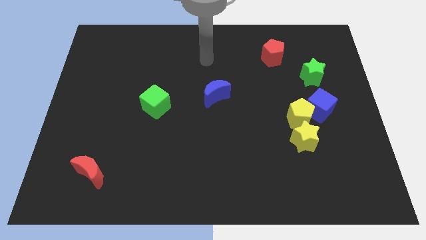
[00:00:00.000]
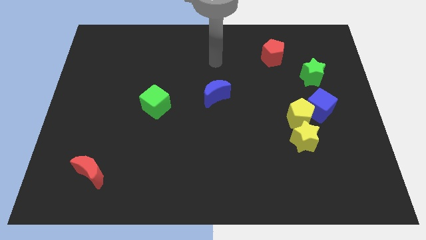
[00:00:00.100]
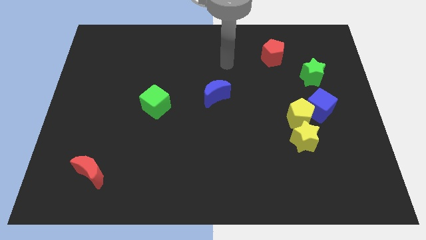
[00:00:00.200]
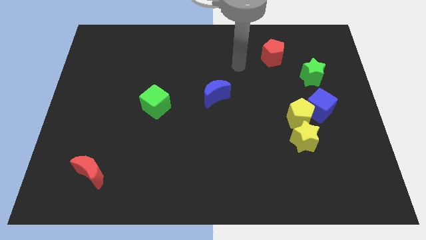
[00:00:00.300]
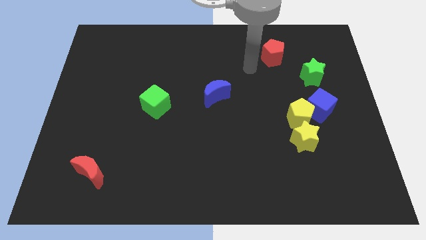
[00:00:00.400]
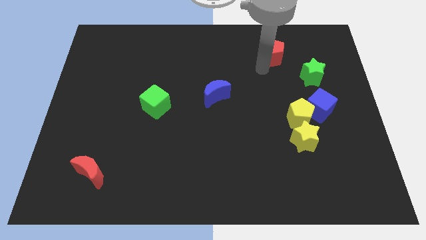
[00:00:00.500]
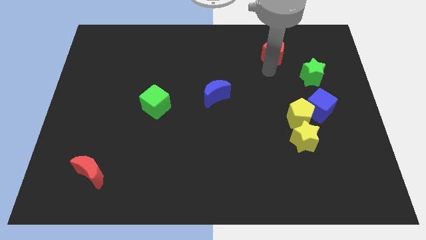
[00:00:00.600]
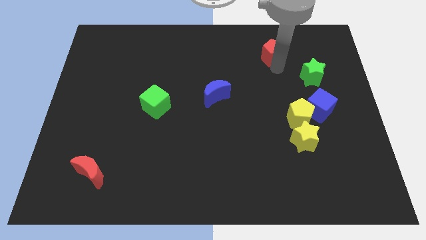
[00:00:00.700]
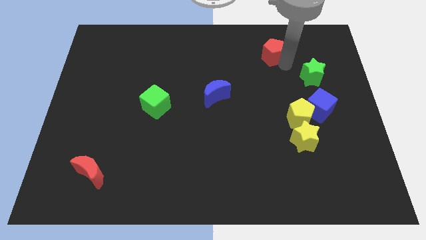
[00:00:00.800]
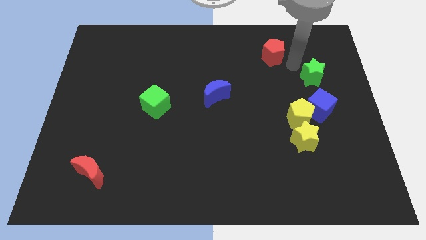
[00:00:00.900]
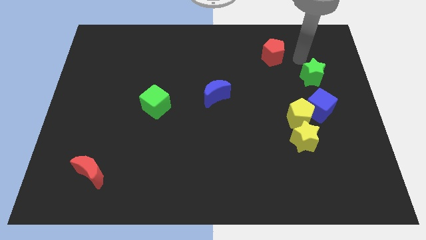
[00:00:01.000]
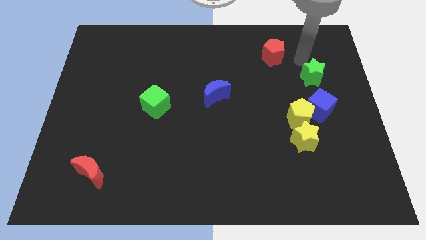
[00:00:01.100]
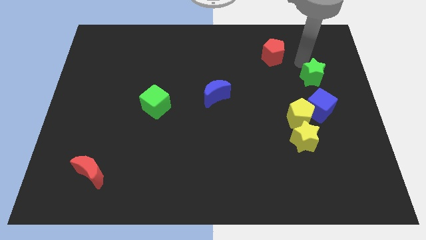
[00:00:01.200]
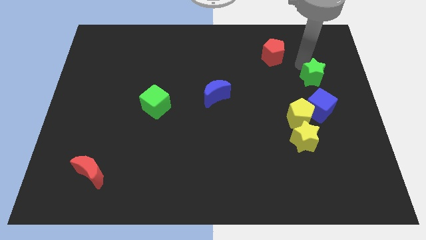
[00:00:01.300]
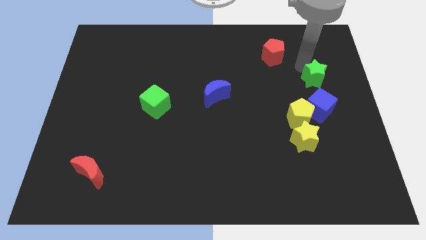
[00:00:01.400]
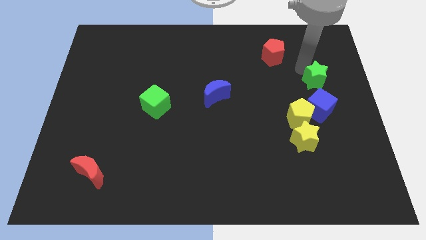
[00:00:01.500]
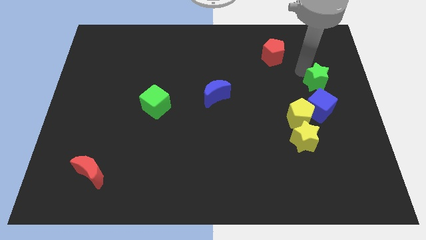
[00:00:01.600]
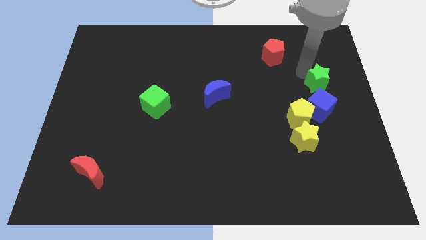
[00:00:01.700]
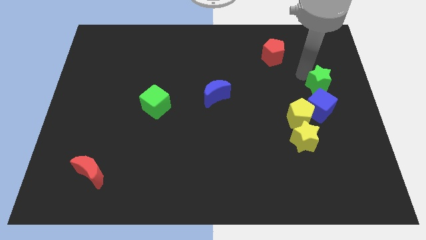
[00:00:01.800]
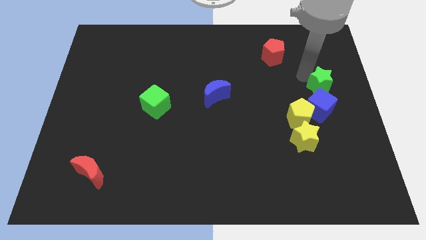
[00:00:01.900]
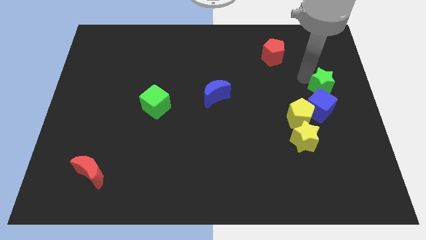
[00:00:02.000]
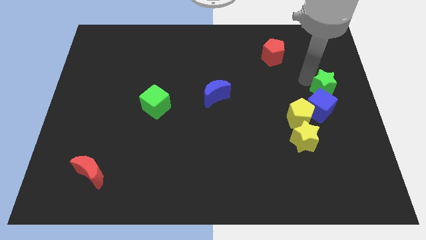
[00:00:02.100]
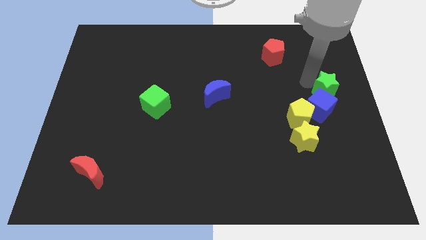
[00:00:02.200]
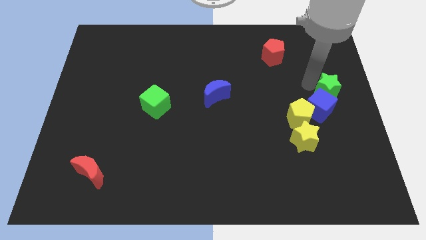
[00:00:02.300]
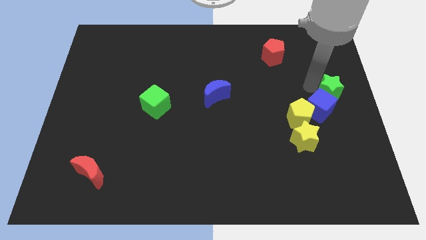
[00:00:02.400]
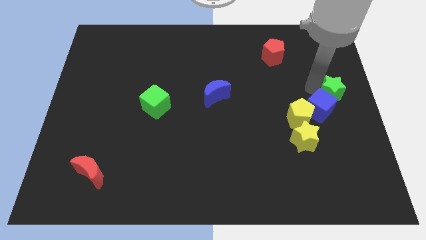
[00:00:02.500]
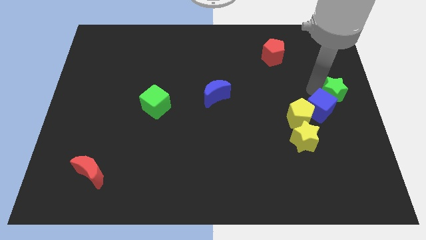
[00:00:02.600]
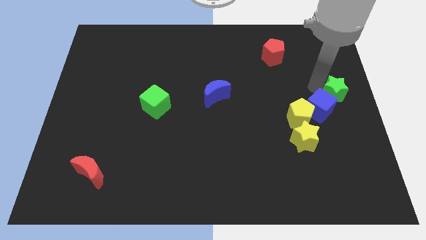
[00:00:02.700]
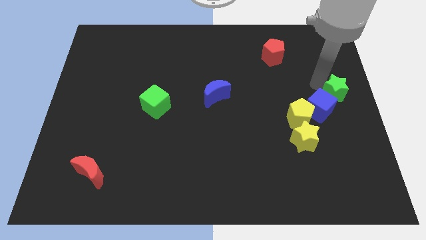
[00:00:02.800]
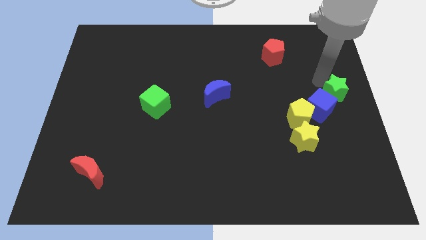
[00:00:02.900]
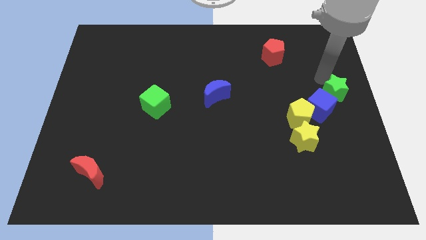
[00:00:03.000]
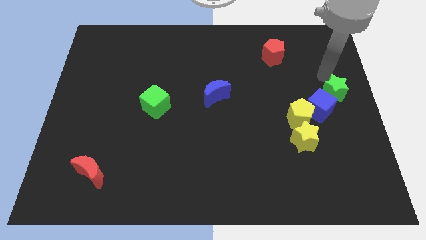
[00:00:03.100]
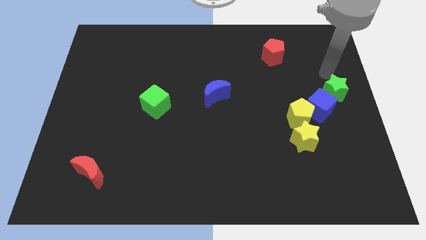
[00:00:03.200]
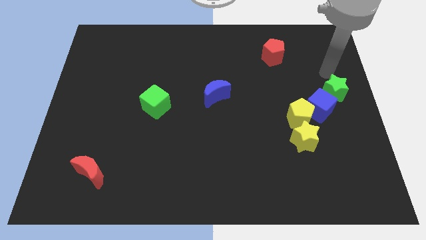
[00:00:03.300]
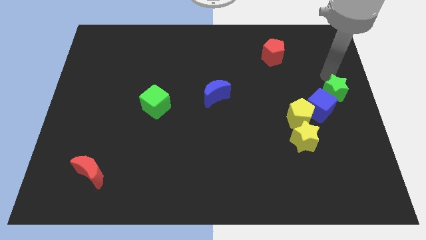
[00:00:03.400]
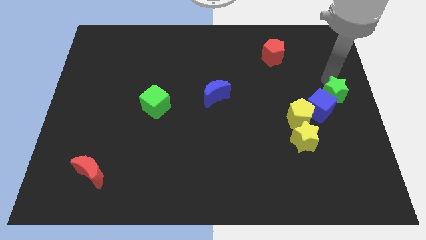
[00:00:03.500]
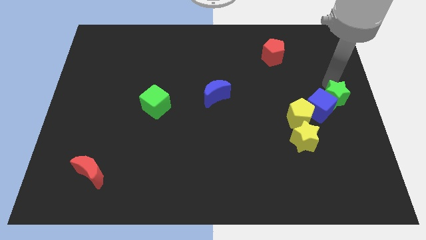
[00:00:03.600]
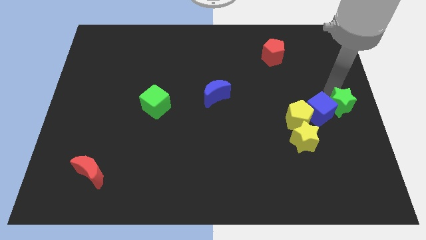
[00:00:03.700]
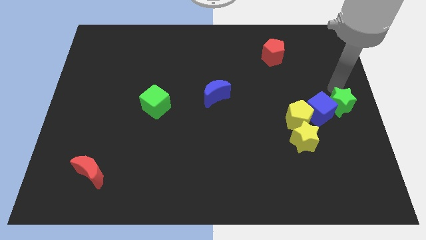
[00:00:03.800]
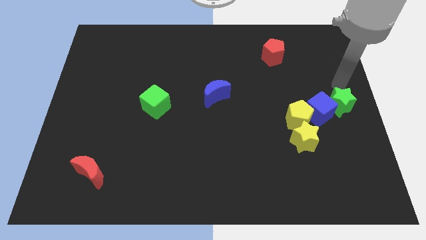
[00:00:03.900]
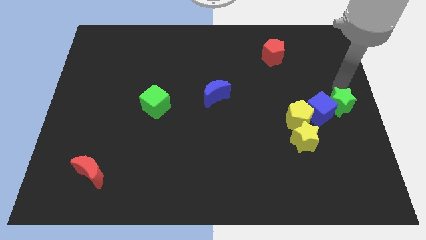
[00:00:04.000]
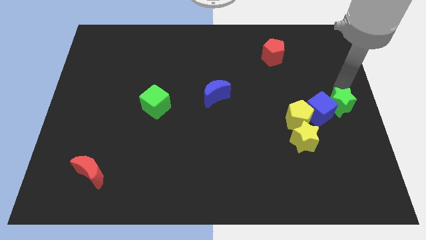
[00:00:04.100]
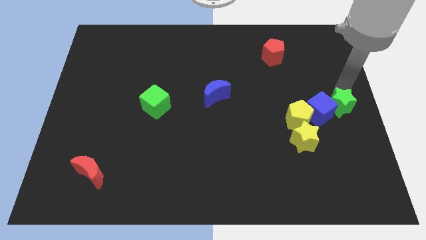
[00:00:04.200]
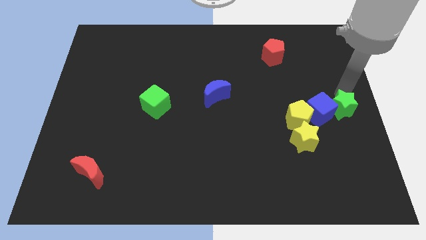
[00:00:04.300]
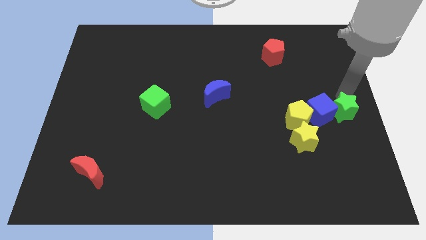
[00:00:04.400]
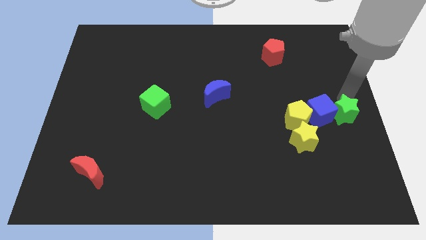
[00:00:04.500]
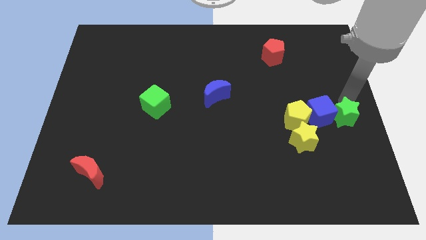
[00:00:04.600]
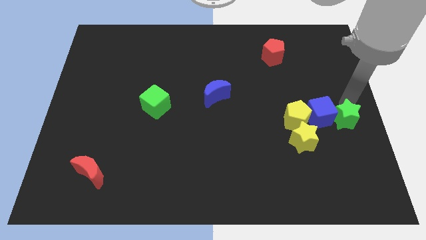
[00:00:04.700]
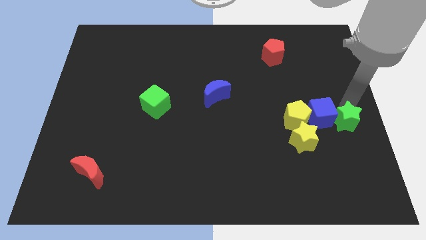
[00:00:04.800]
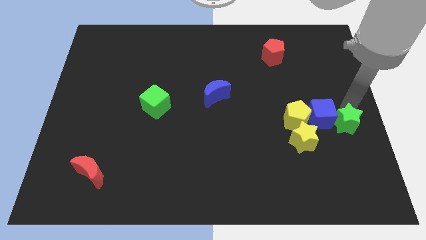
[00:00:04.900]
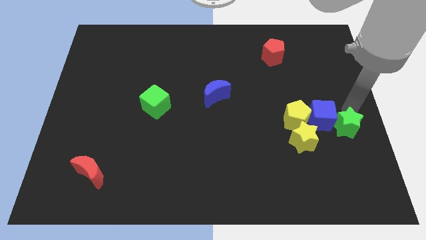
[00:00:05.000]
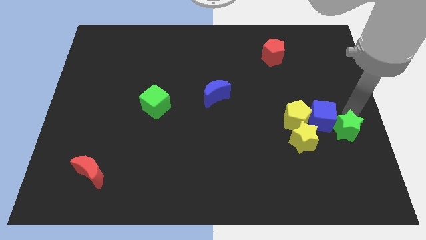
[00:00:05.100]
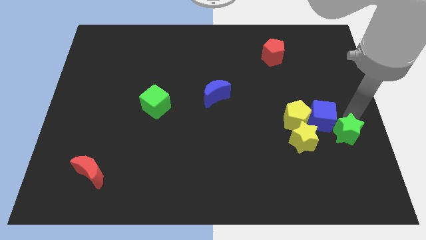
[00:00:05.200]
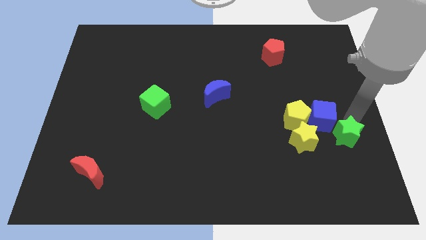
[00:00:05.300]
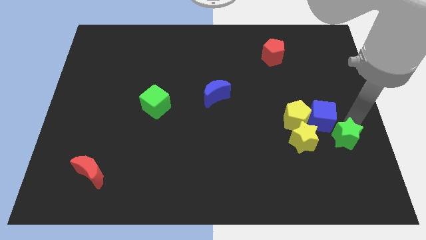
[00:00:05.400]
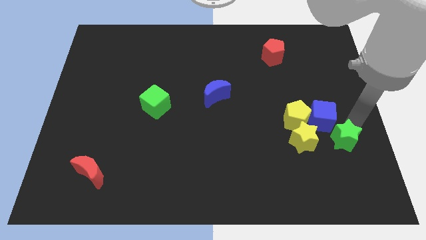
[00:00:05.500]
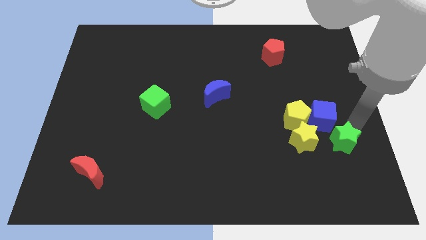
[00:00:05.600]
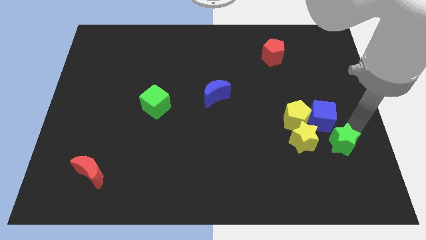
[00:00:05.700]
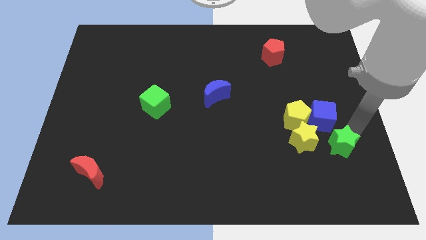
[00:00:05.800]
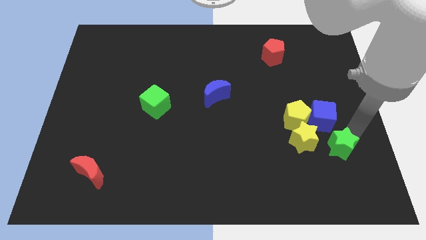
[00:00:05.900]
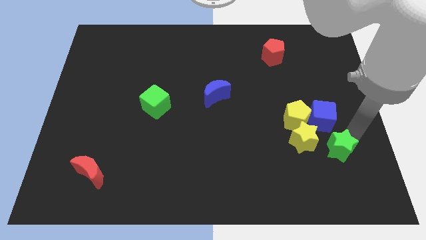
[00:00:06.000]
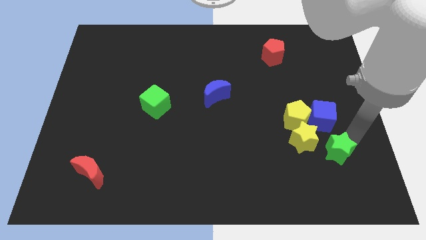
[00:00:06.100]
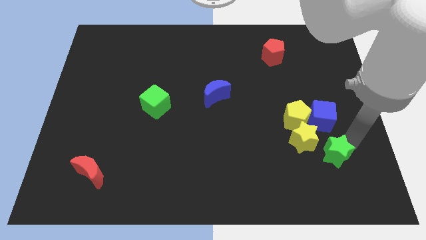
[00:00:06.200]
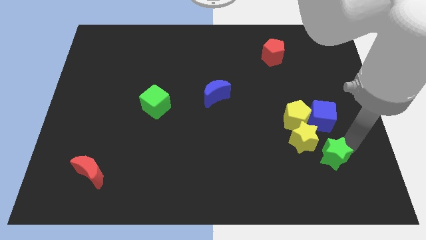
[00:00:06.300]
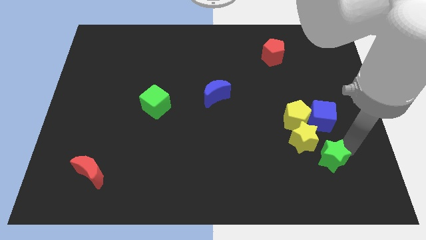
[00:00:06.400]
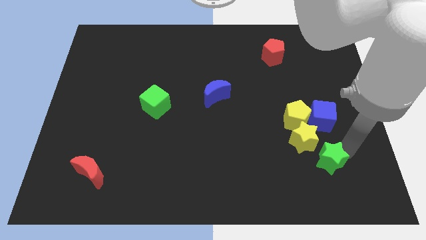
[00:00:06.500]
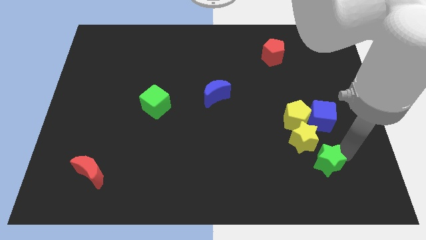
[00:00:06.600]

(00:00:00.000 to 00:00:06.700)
put the green star to the bottom side of the yellow pentagon

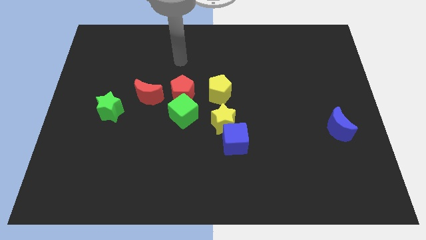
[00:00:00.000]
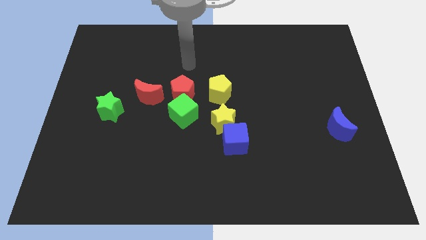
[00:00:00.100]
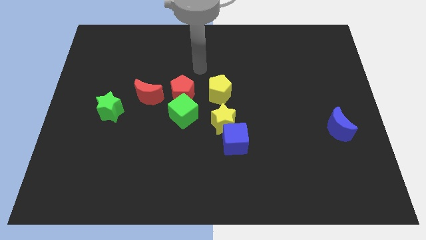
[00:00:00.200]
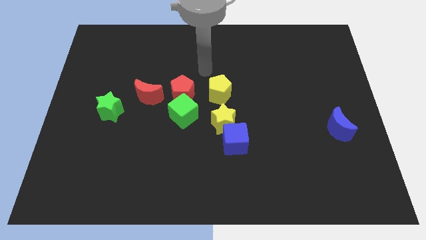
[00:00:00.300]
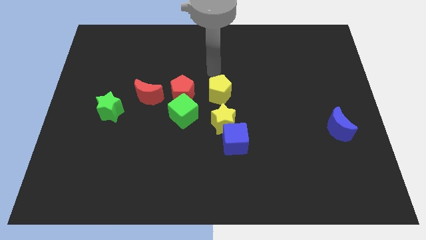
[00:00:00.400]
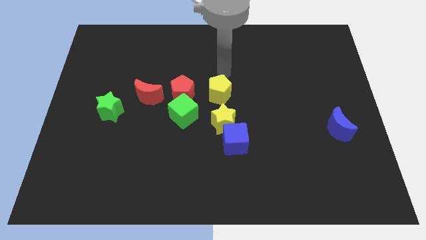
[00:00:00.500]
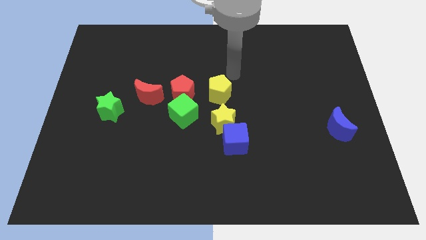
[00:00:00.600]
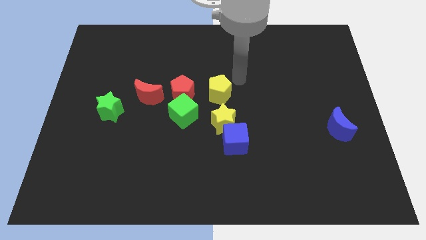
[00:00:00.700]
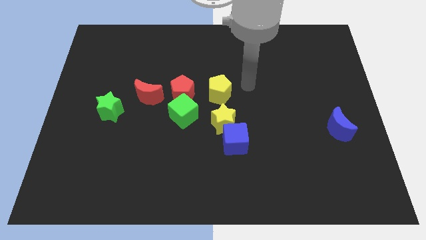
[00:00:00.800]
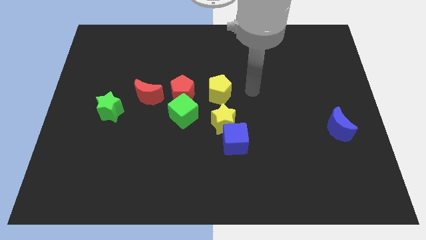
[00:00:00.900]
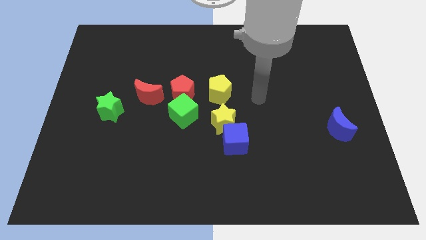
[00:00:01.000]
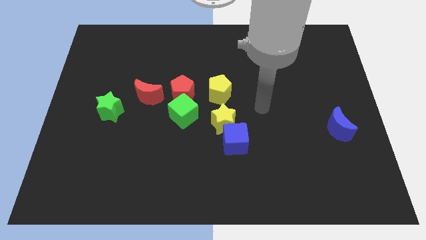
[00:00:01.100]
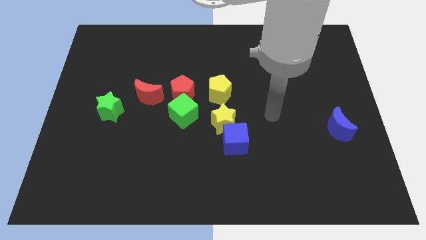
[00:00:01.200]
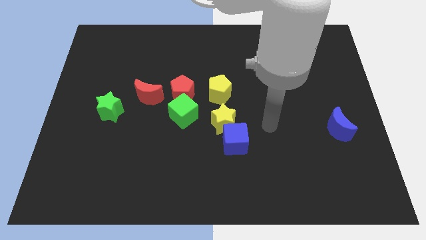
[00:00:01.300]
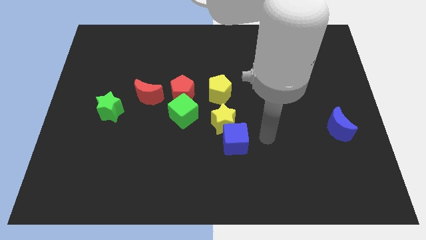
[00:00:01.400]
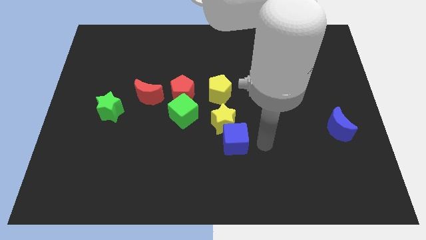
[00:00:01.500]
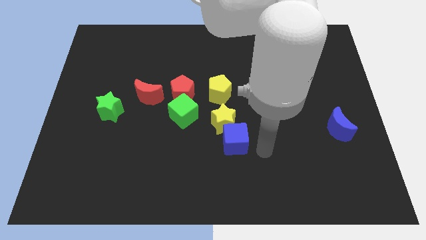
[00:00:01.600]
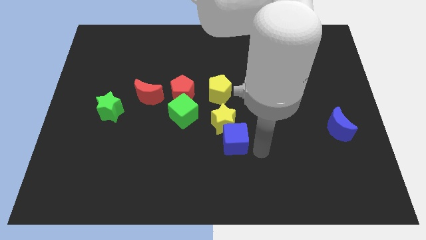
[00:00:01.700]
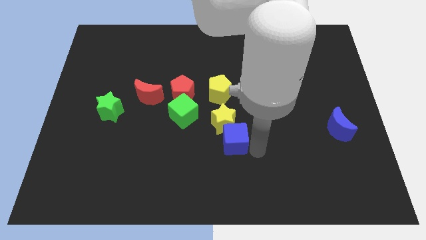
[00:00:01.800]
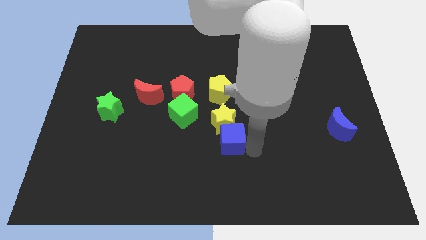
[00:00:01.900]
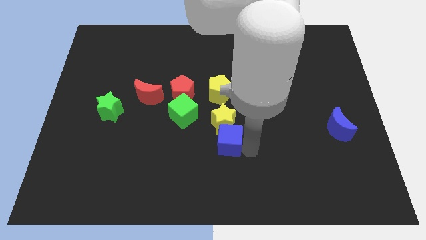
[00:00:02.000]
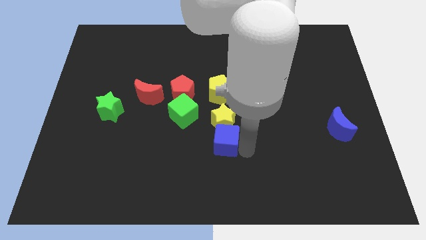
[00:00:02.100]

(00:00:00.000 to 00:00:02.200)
slide the blue cube diagonally down and to the right of the green cube
